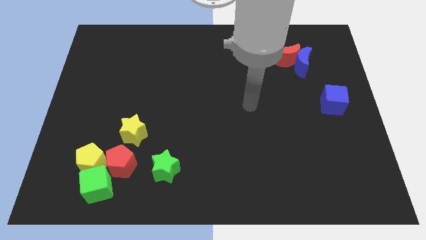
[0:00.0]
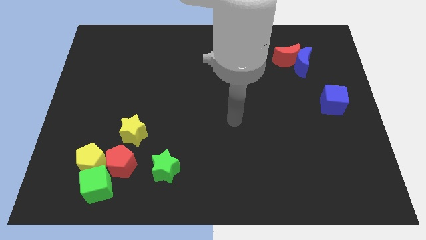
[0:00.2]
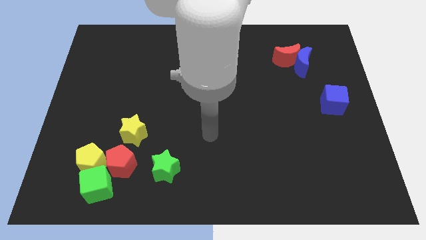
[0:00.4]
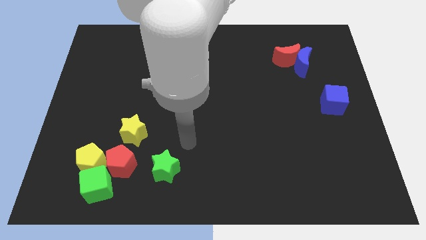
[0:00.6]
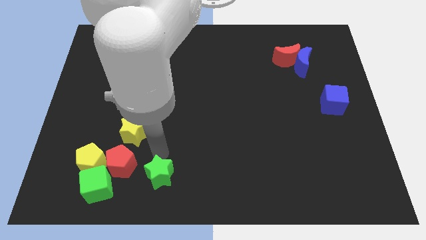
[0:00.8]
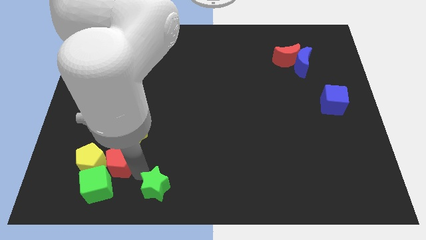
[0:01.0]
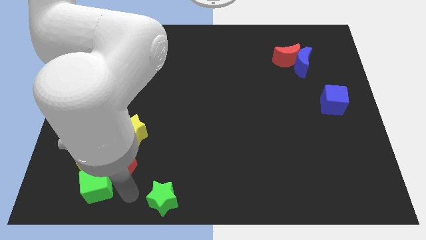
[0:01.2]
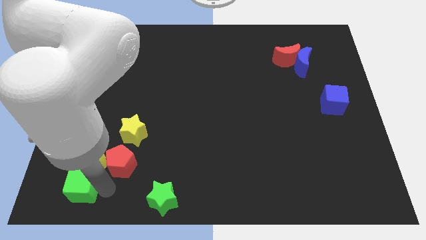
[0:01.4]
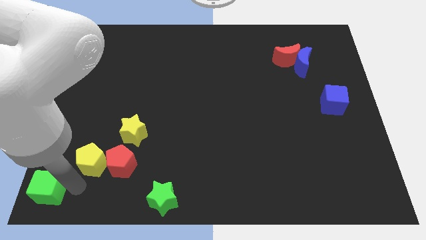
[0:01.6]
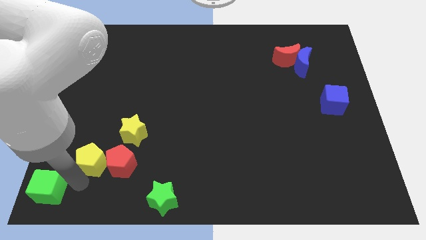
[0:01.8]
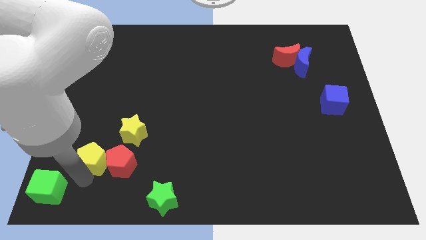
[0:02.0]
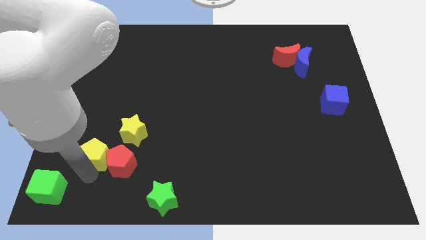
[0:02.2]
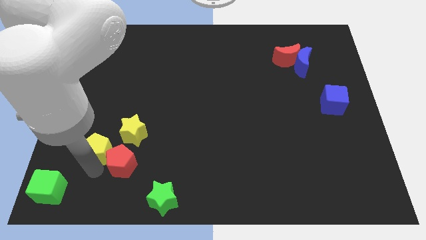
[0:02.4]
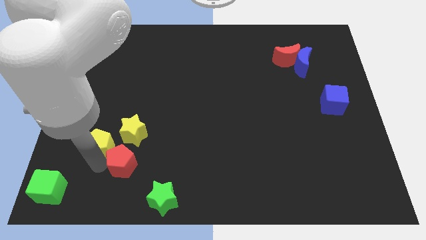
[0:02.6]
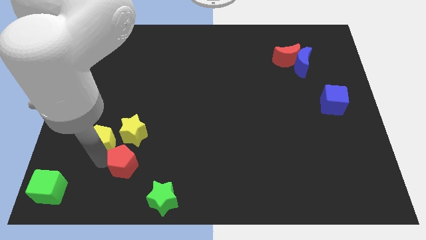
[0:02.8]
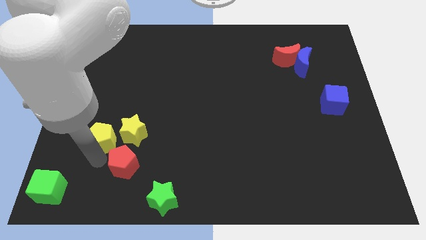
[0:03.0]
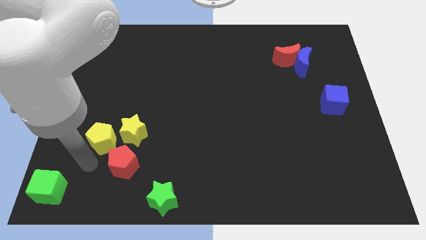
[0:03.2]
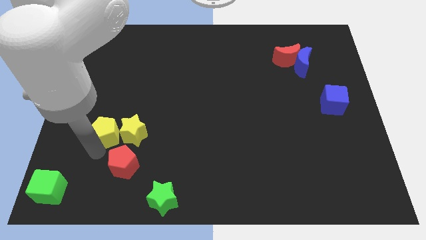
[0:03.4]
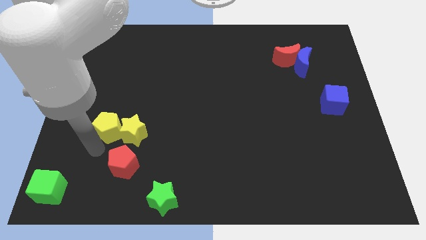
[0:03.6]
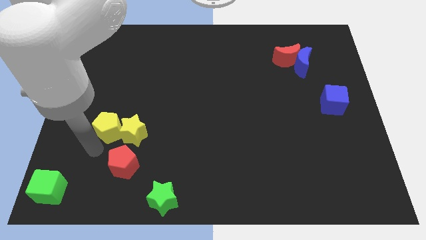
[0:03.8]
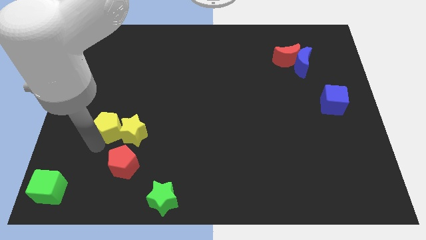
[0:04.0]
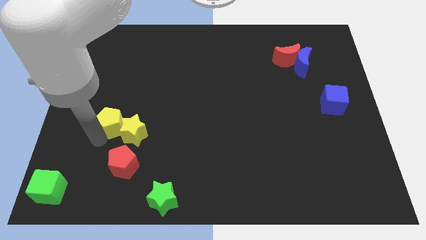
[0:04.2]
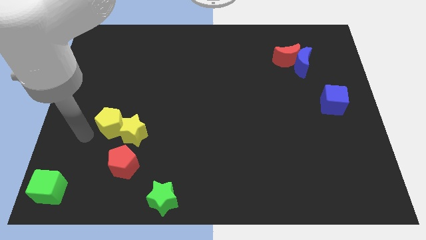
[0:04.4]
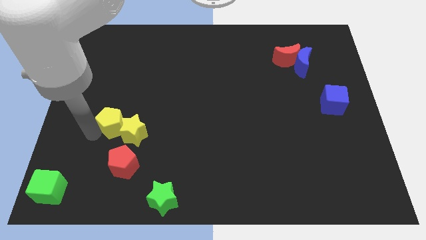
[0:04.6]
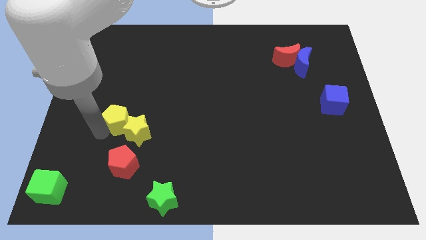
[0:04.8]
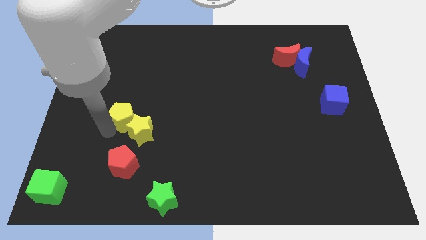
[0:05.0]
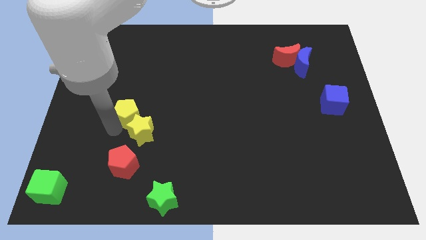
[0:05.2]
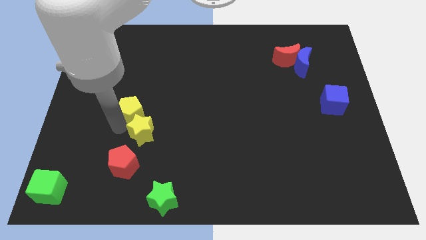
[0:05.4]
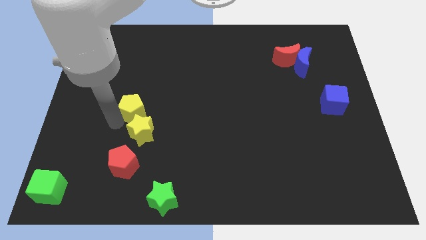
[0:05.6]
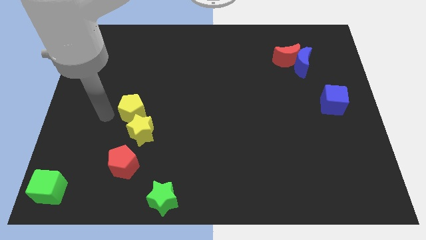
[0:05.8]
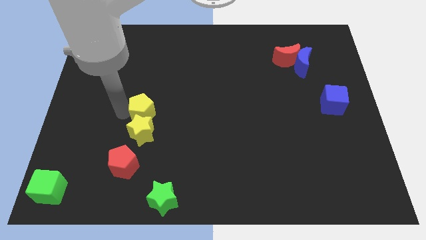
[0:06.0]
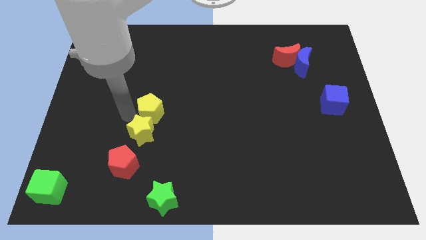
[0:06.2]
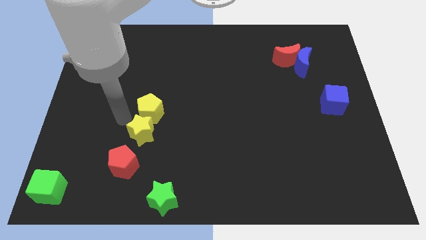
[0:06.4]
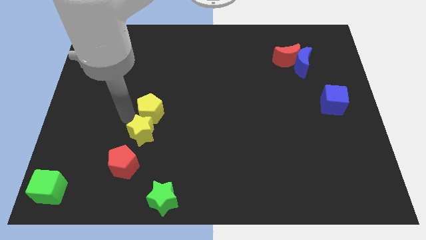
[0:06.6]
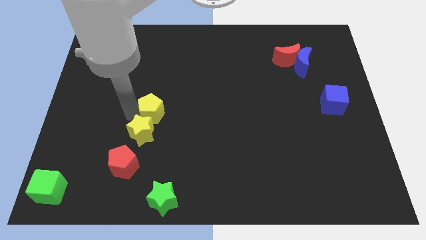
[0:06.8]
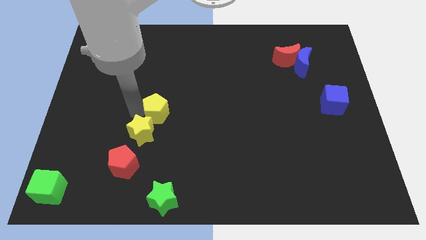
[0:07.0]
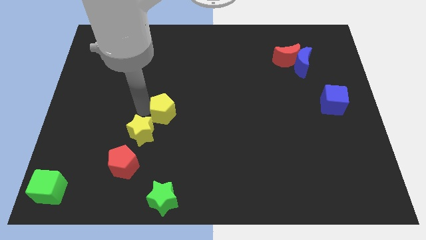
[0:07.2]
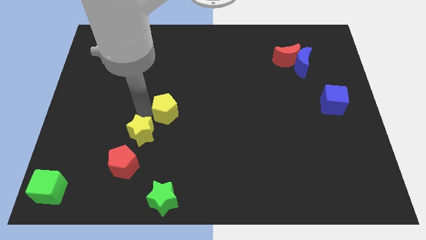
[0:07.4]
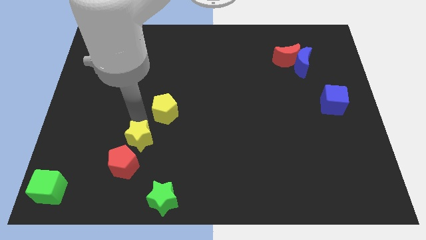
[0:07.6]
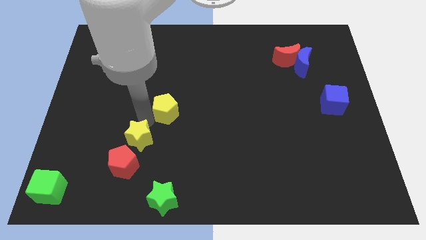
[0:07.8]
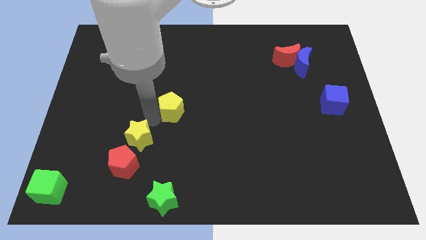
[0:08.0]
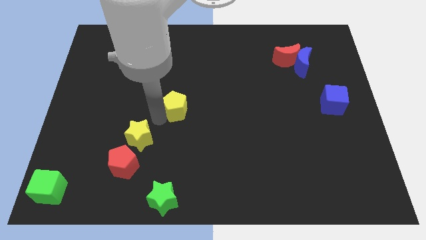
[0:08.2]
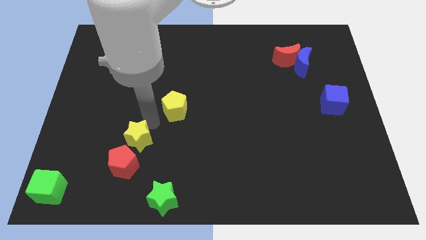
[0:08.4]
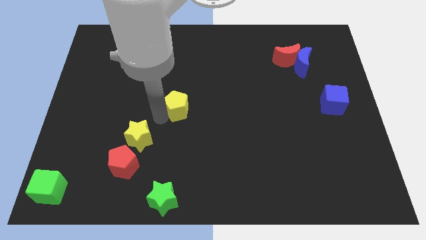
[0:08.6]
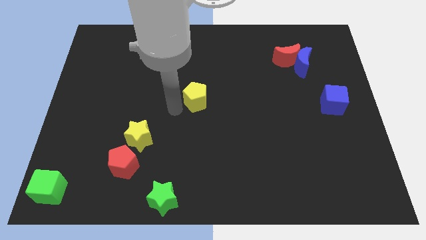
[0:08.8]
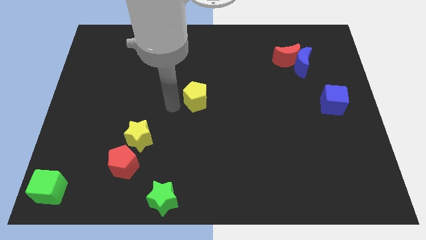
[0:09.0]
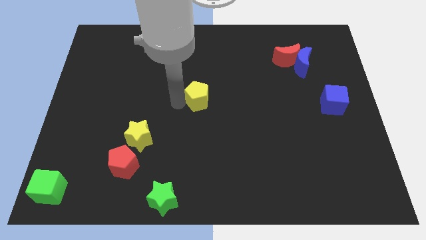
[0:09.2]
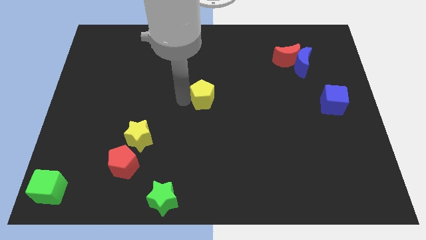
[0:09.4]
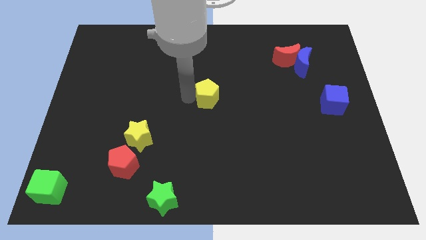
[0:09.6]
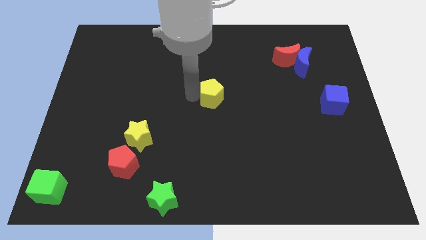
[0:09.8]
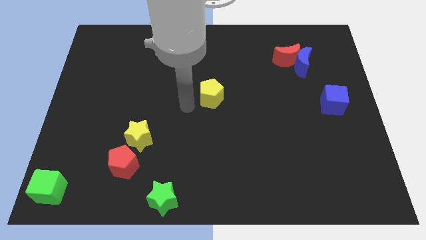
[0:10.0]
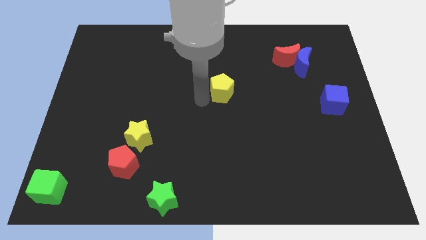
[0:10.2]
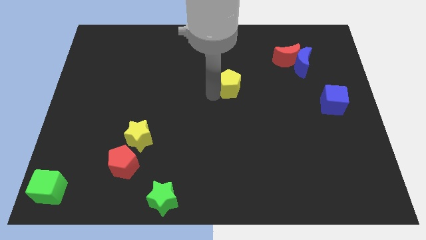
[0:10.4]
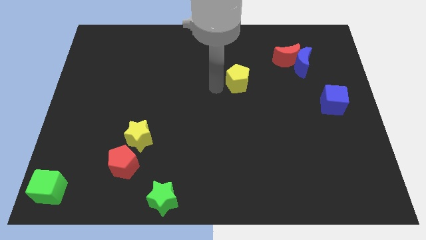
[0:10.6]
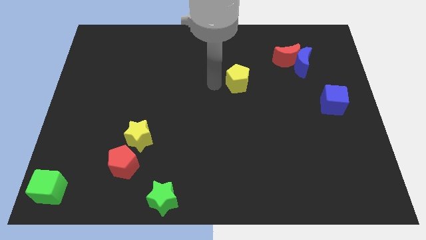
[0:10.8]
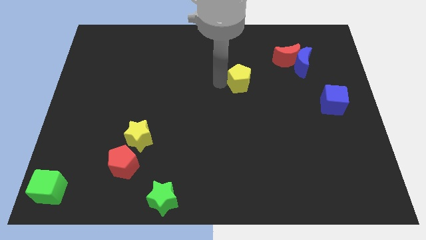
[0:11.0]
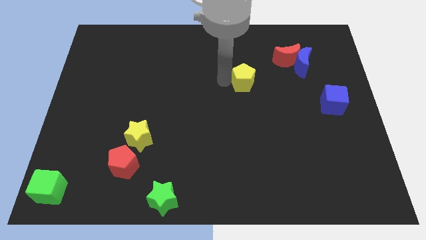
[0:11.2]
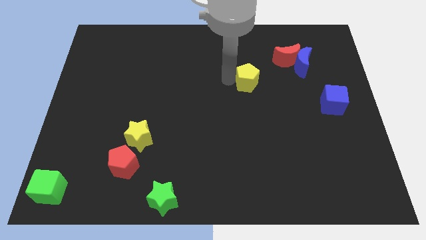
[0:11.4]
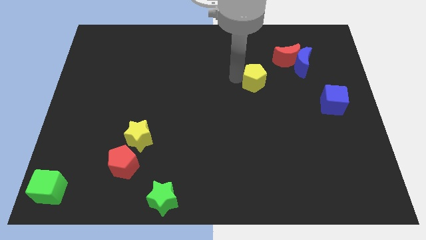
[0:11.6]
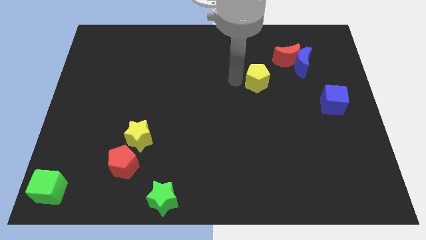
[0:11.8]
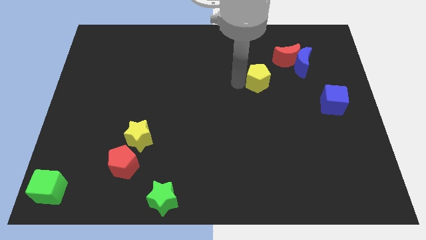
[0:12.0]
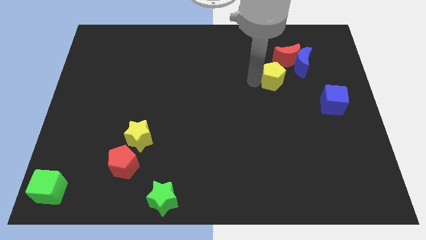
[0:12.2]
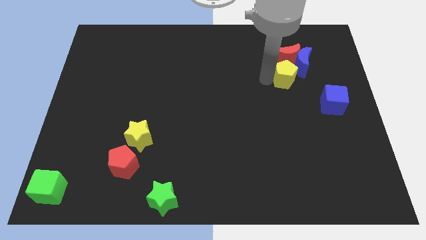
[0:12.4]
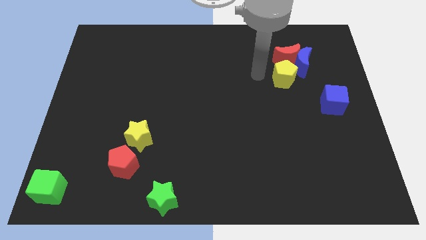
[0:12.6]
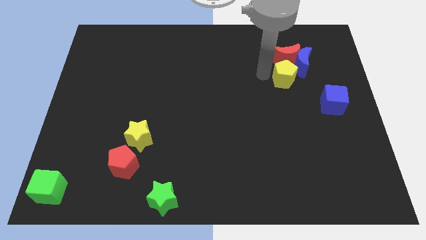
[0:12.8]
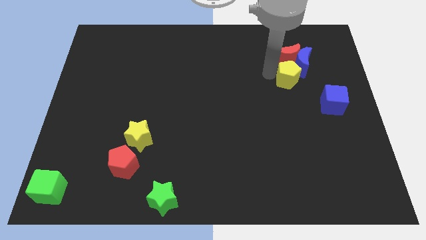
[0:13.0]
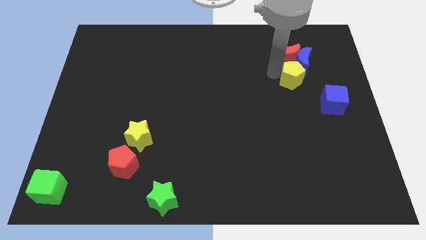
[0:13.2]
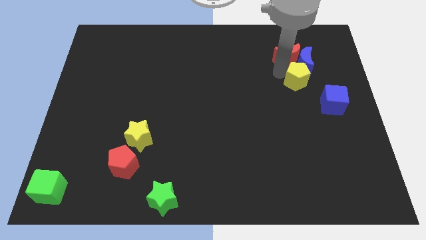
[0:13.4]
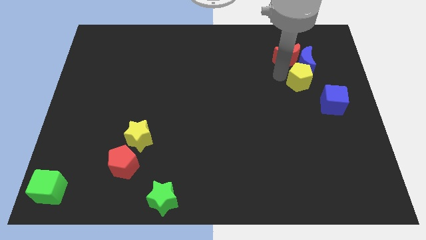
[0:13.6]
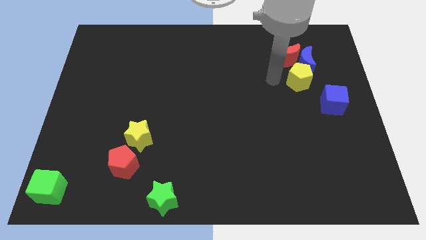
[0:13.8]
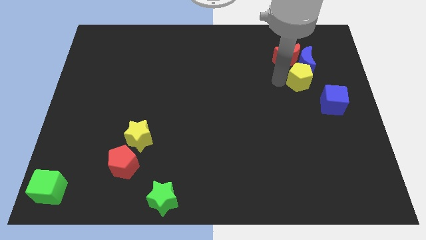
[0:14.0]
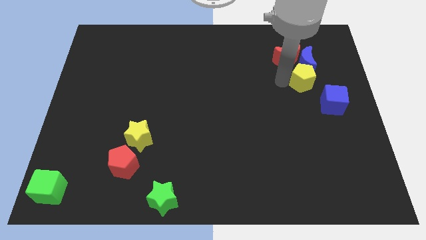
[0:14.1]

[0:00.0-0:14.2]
move the yellow pentagon diagonally down and to the right of the blue moon
